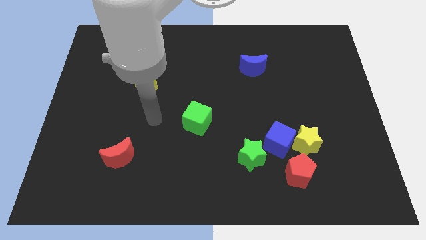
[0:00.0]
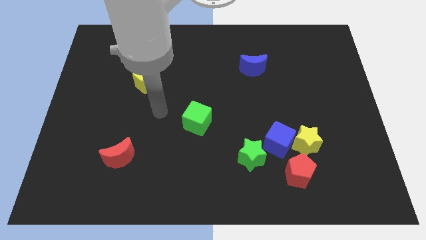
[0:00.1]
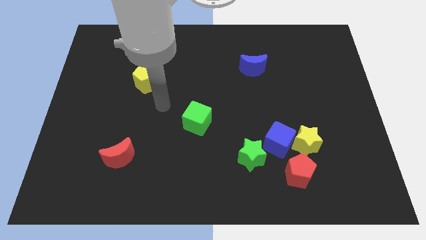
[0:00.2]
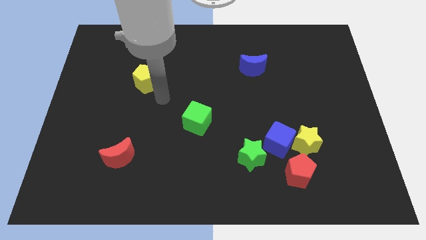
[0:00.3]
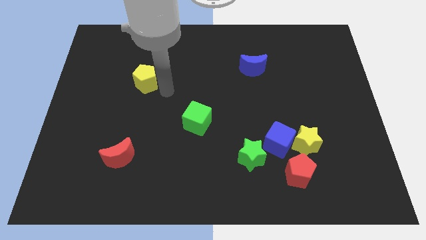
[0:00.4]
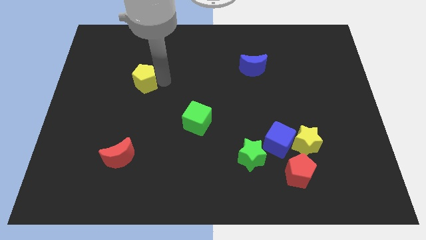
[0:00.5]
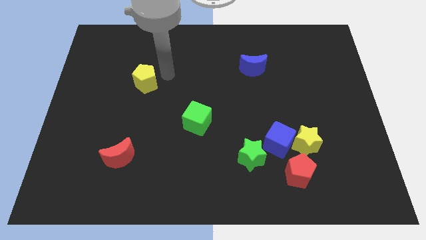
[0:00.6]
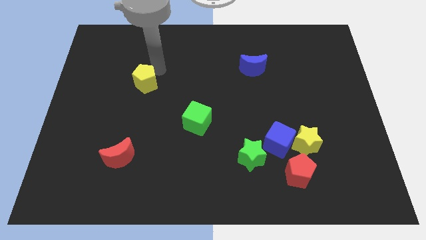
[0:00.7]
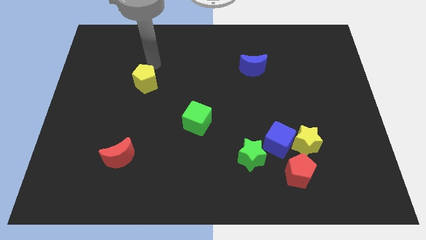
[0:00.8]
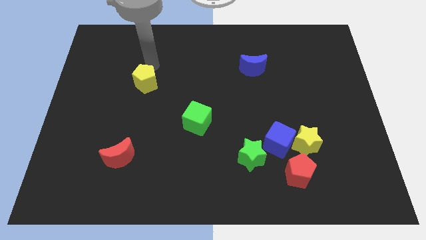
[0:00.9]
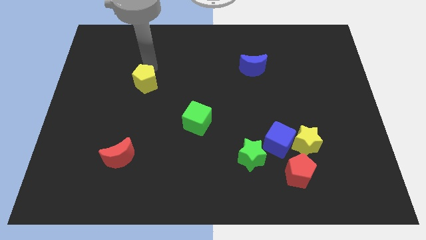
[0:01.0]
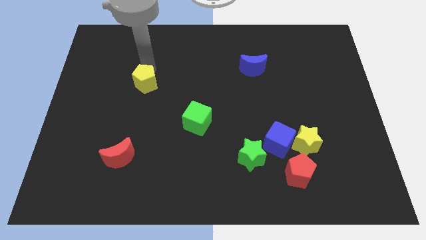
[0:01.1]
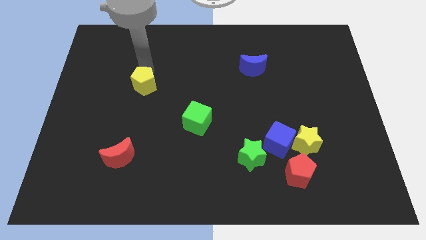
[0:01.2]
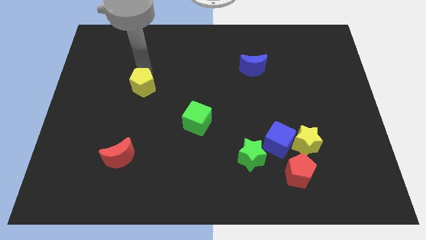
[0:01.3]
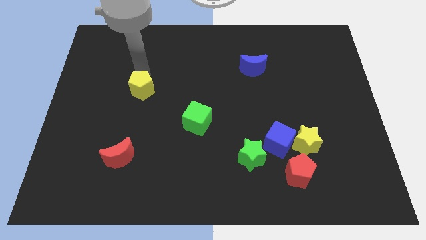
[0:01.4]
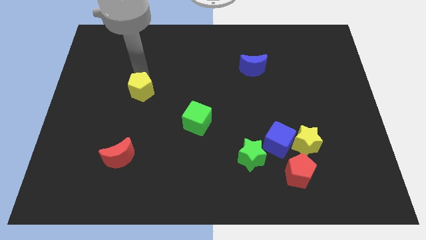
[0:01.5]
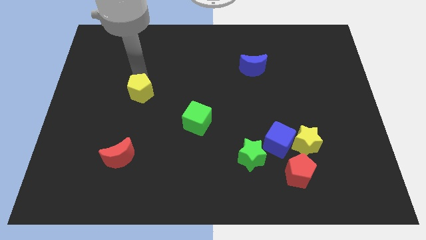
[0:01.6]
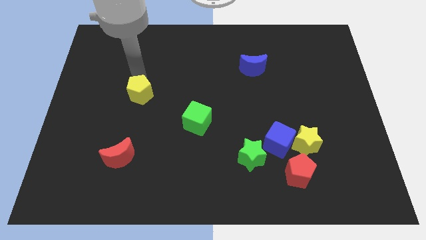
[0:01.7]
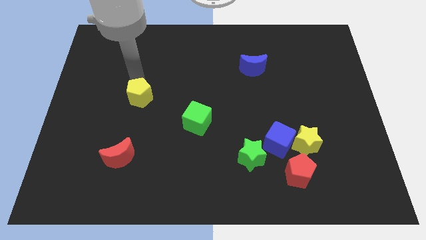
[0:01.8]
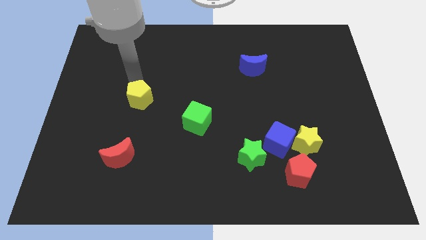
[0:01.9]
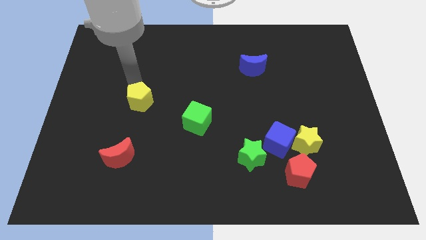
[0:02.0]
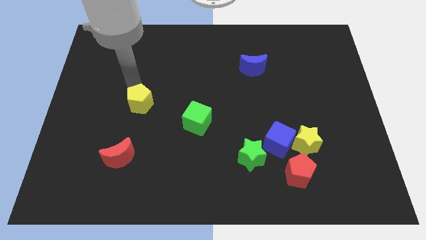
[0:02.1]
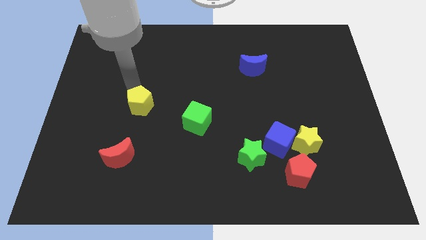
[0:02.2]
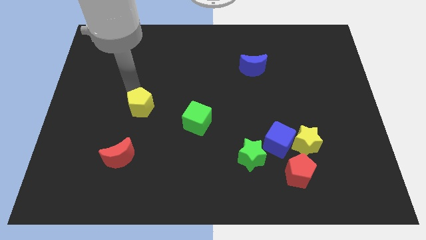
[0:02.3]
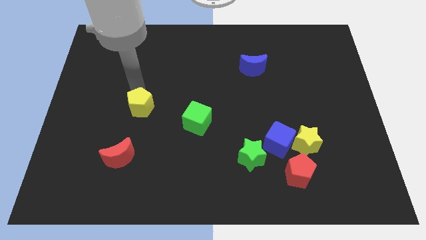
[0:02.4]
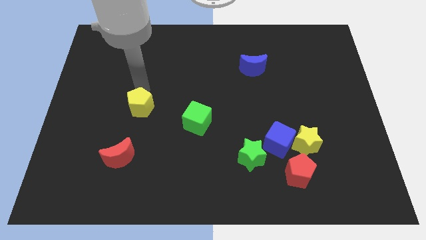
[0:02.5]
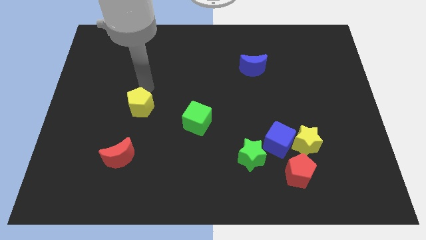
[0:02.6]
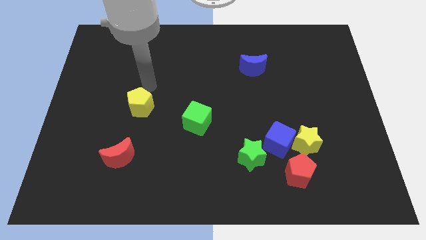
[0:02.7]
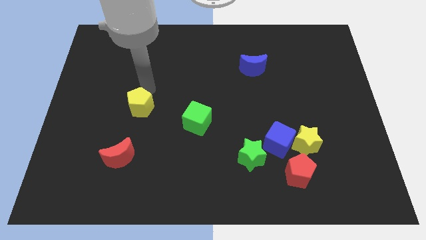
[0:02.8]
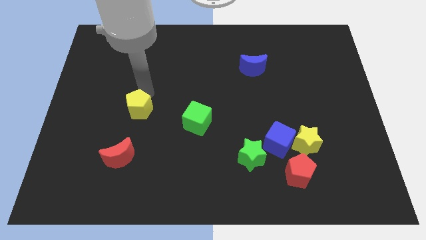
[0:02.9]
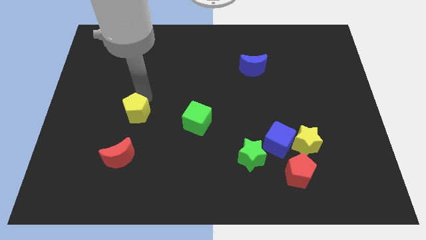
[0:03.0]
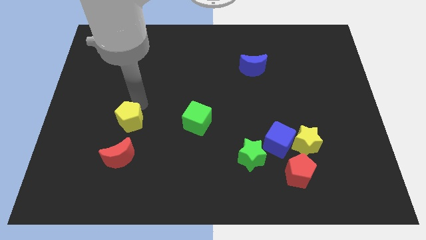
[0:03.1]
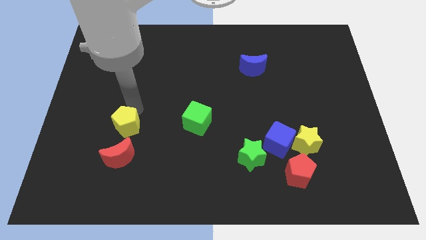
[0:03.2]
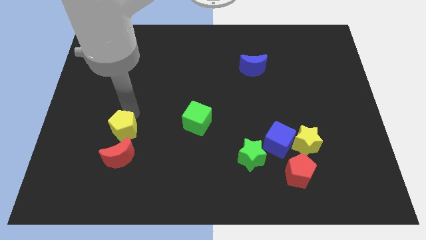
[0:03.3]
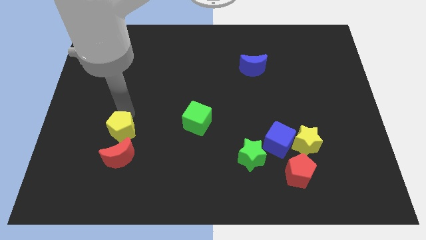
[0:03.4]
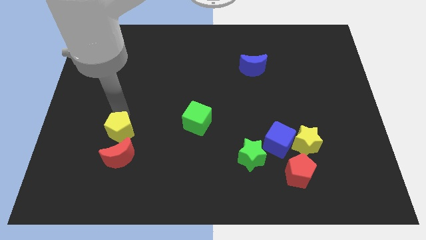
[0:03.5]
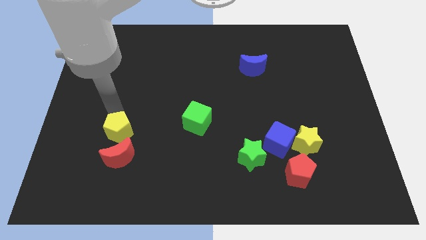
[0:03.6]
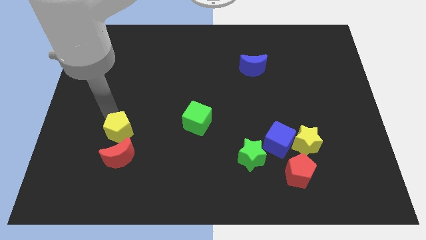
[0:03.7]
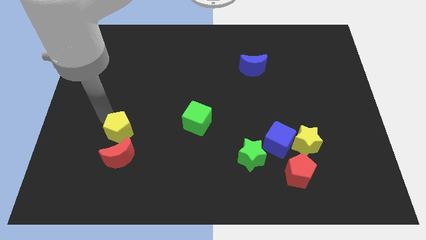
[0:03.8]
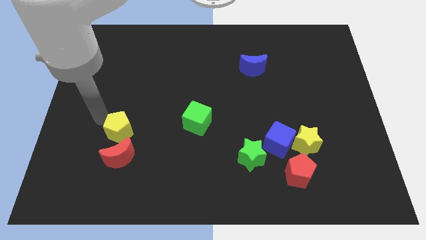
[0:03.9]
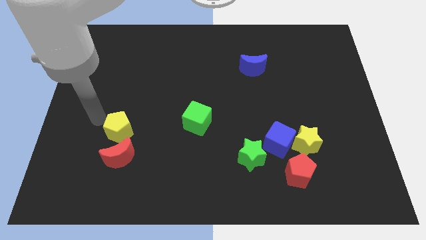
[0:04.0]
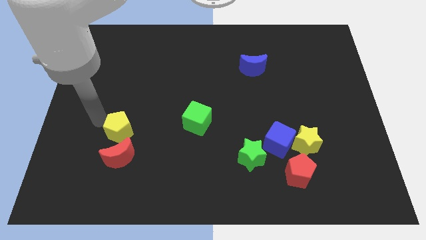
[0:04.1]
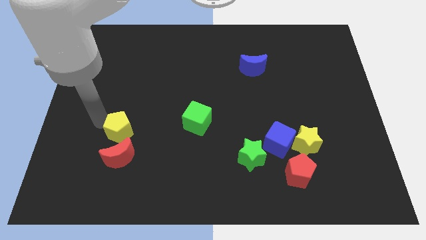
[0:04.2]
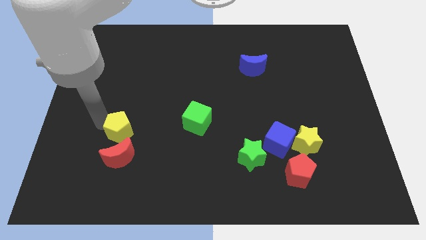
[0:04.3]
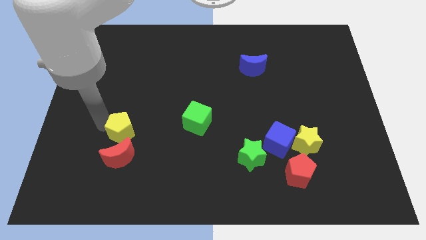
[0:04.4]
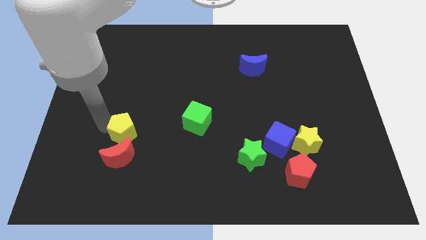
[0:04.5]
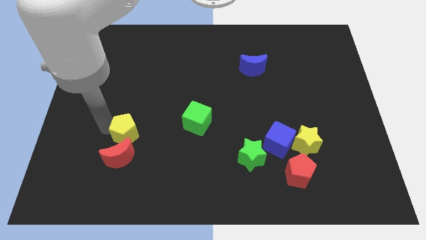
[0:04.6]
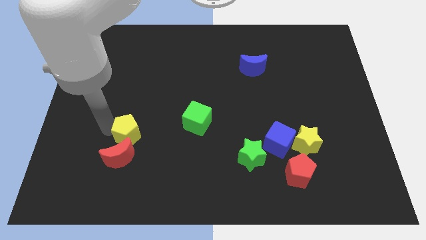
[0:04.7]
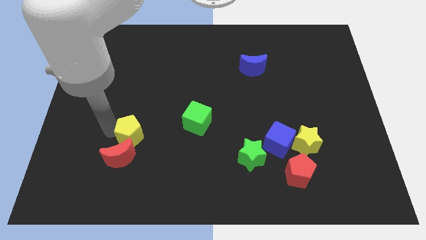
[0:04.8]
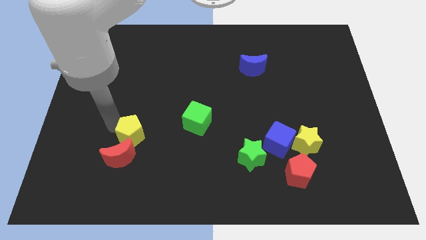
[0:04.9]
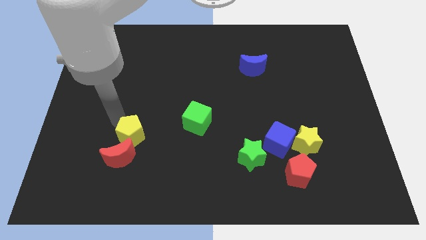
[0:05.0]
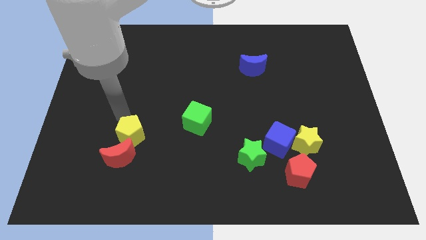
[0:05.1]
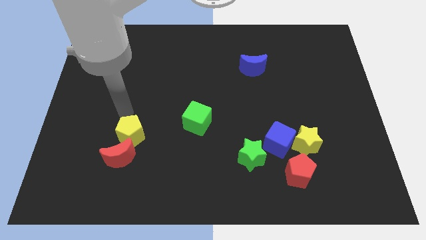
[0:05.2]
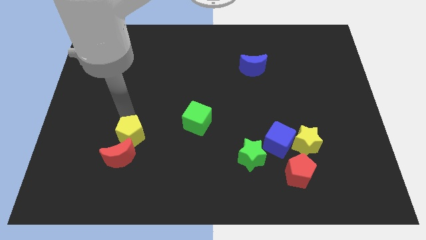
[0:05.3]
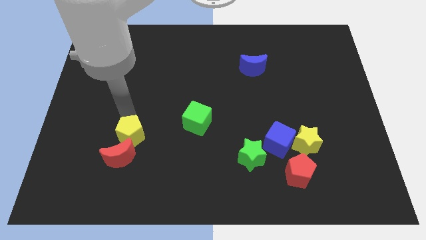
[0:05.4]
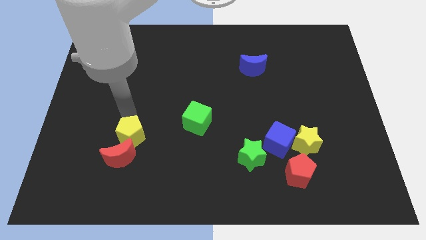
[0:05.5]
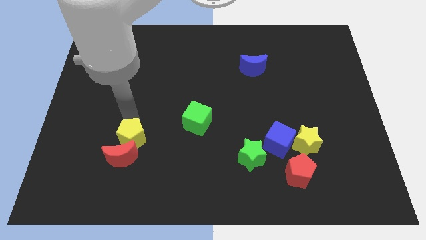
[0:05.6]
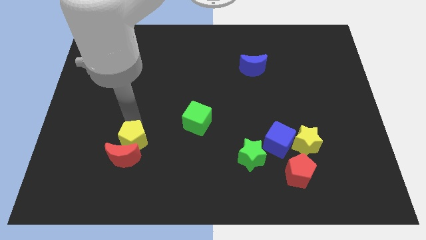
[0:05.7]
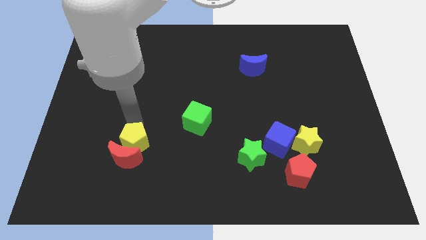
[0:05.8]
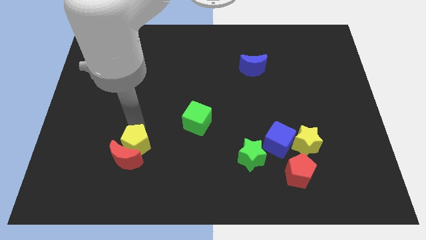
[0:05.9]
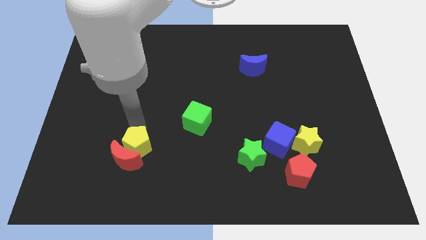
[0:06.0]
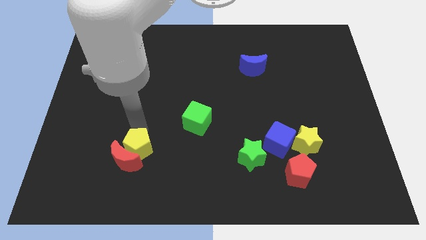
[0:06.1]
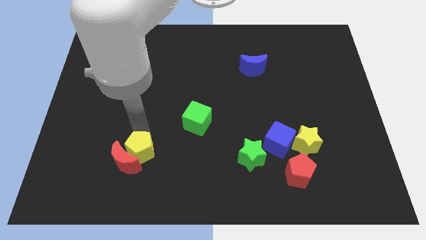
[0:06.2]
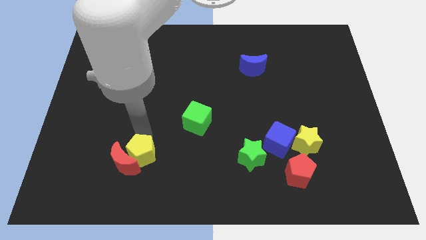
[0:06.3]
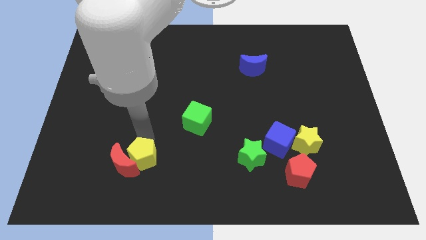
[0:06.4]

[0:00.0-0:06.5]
push the yellow pentagon to the bottom right of the red moon
